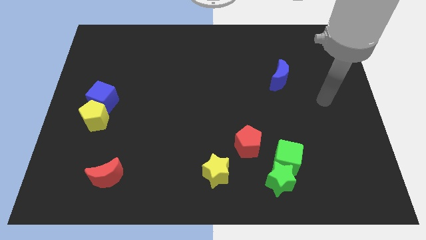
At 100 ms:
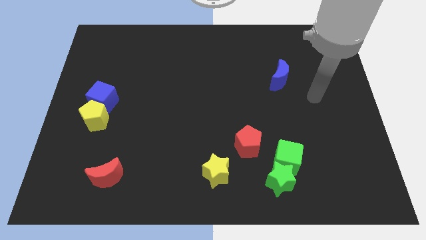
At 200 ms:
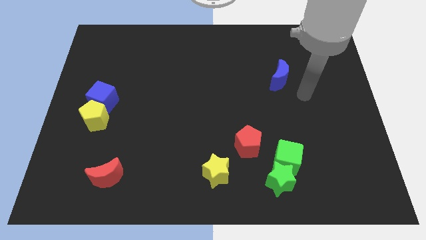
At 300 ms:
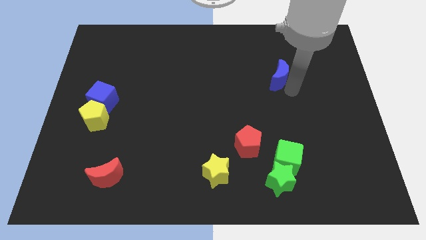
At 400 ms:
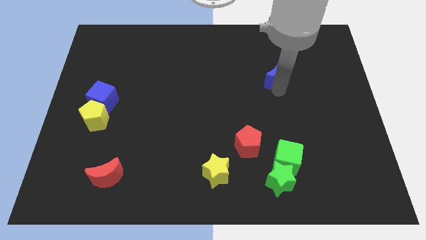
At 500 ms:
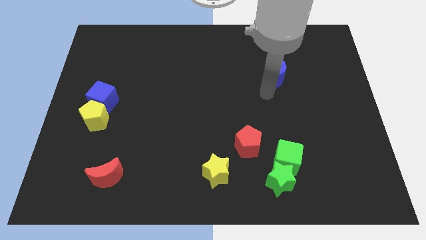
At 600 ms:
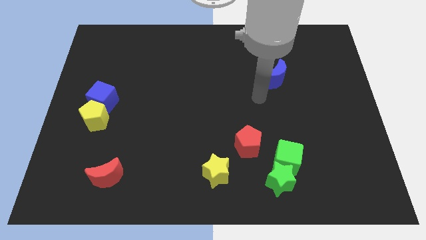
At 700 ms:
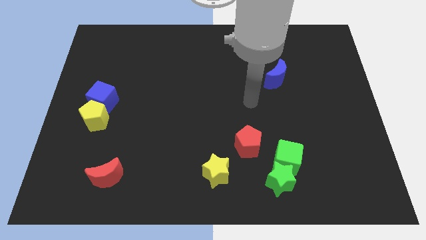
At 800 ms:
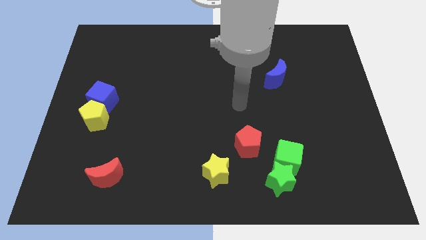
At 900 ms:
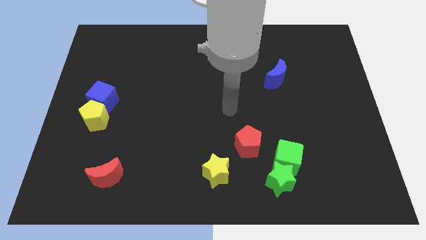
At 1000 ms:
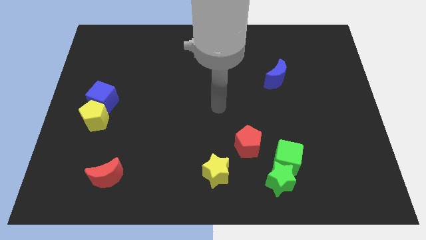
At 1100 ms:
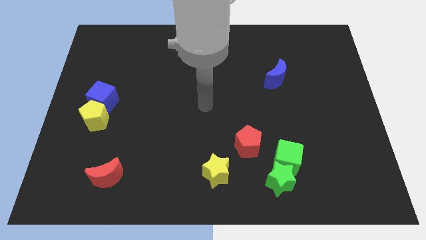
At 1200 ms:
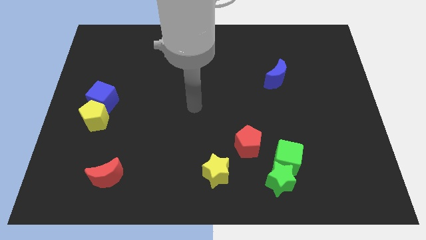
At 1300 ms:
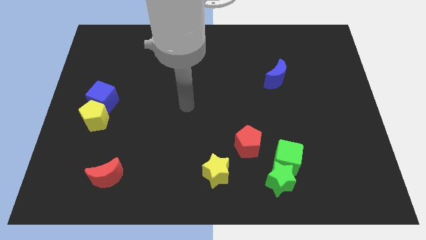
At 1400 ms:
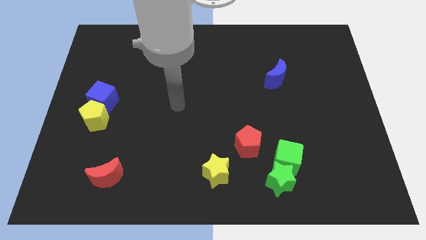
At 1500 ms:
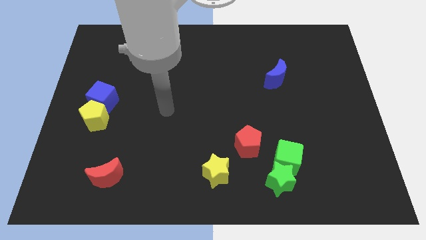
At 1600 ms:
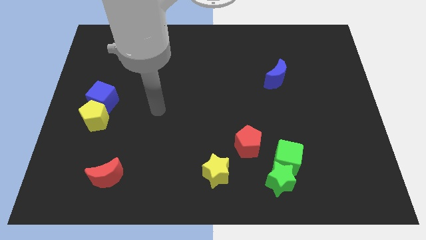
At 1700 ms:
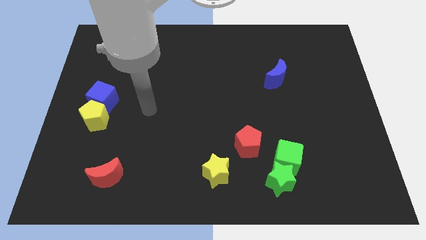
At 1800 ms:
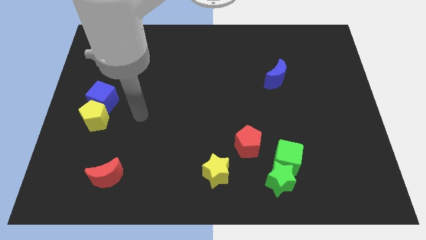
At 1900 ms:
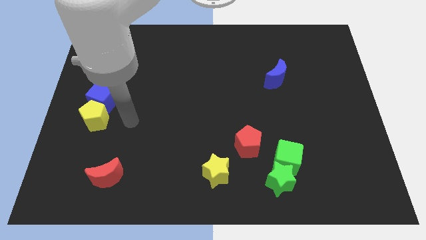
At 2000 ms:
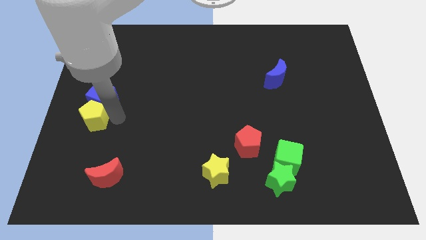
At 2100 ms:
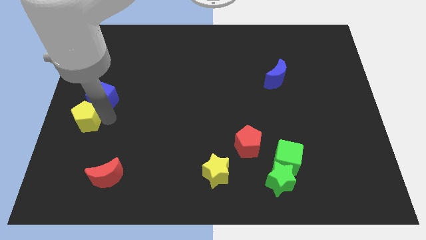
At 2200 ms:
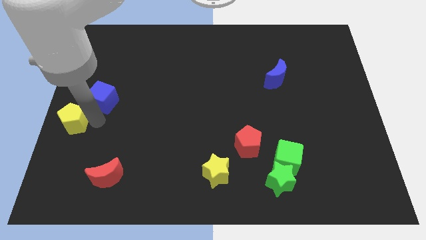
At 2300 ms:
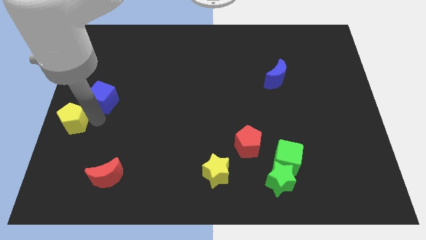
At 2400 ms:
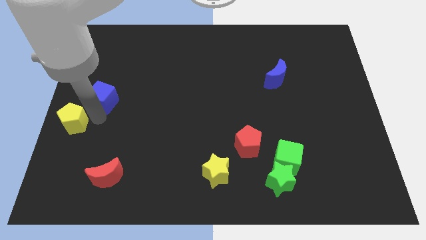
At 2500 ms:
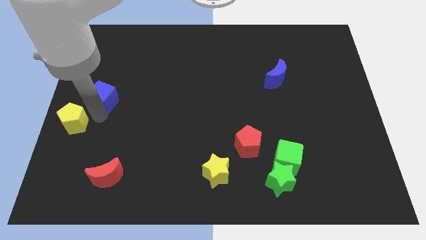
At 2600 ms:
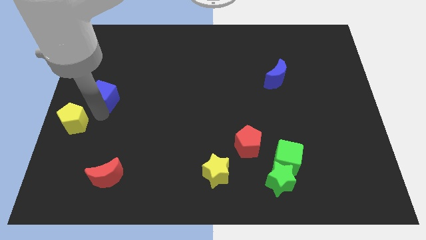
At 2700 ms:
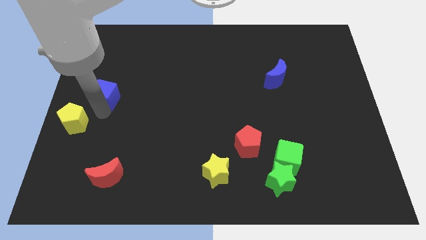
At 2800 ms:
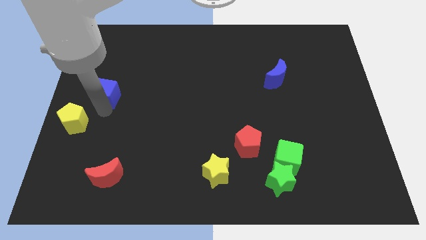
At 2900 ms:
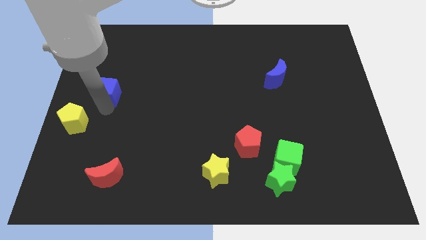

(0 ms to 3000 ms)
pull the blue cube apart from the yellow pentagon

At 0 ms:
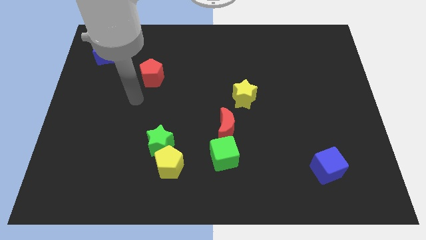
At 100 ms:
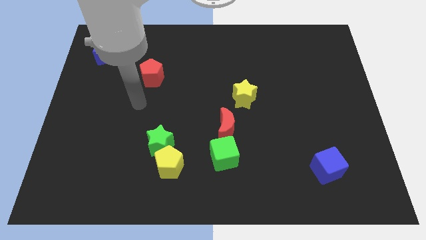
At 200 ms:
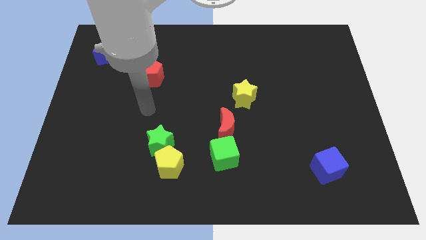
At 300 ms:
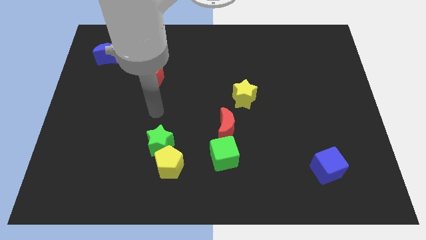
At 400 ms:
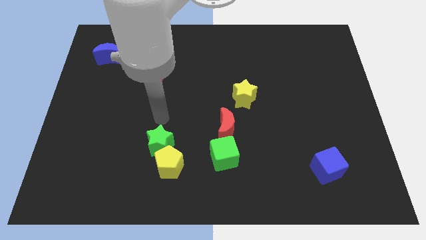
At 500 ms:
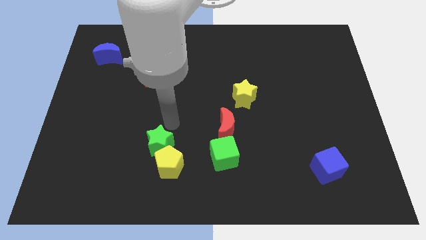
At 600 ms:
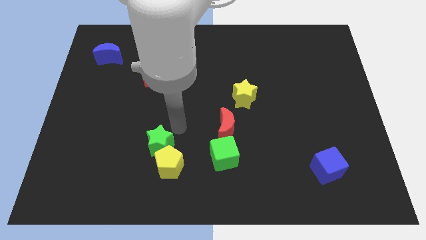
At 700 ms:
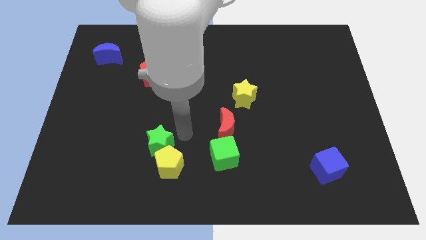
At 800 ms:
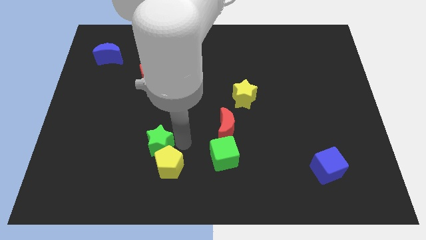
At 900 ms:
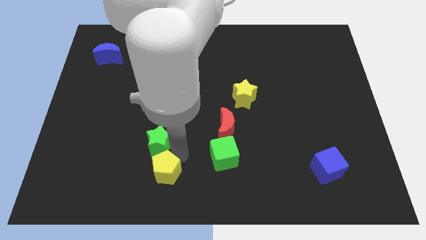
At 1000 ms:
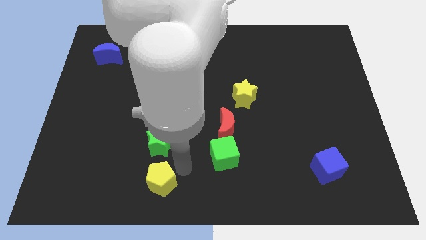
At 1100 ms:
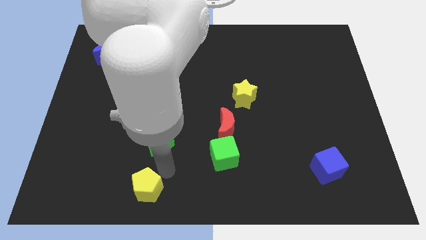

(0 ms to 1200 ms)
separate the green star from the yellow pentagon

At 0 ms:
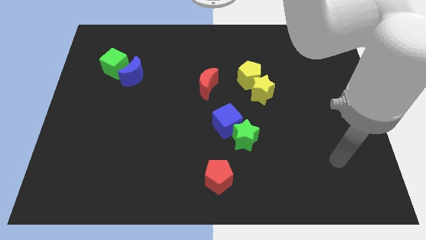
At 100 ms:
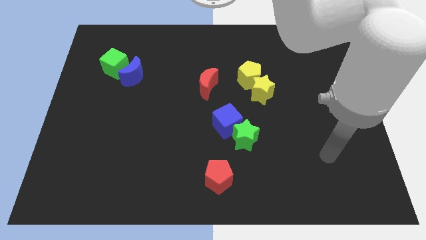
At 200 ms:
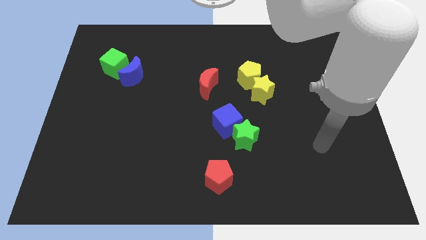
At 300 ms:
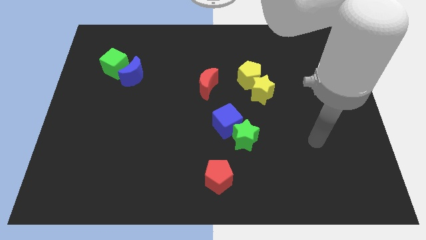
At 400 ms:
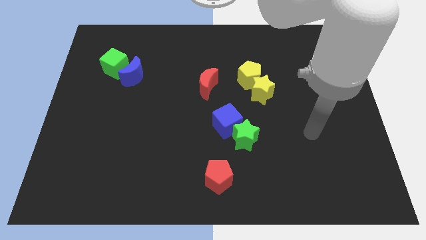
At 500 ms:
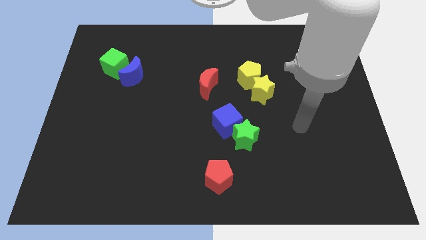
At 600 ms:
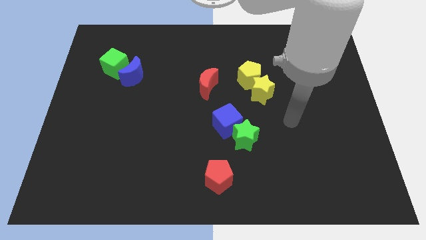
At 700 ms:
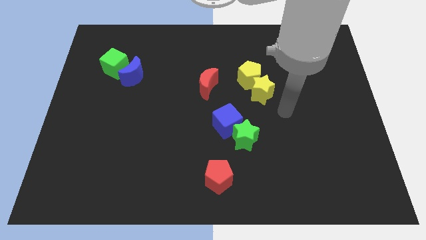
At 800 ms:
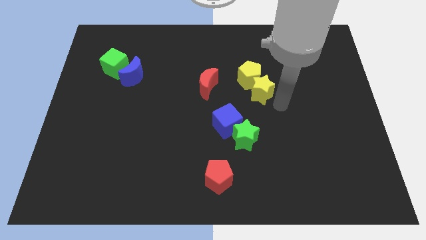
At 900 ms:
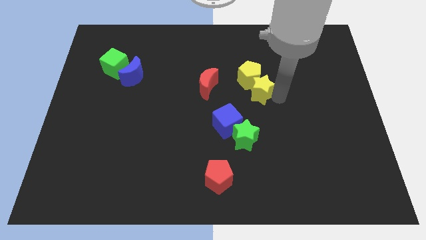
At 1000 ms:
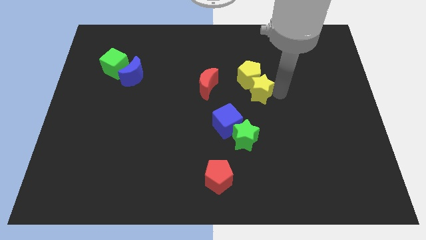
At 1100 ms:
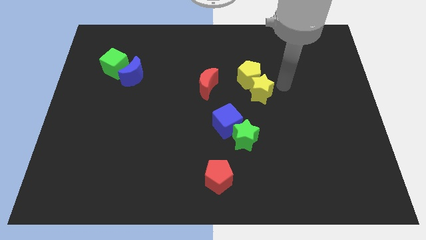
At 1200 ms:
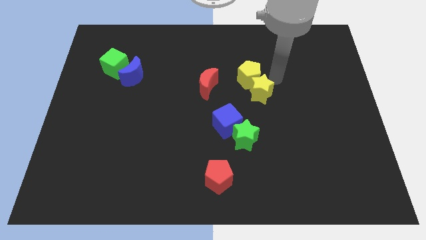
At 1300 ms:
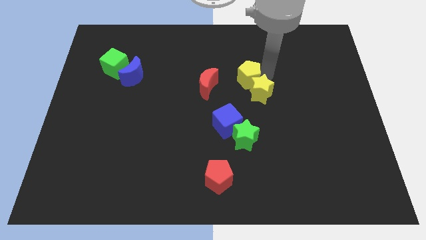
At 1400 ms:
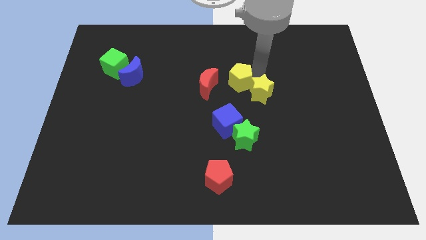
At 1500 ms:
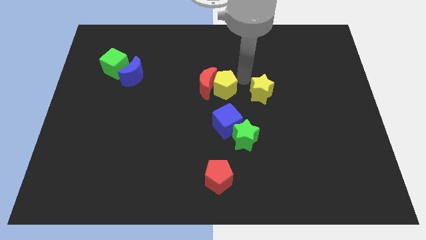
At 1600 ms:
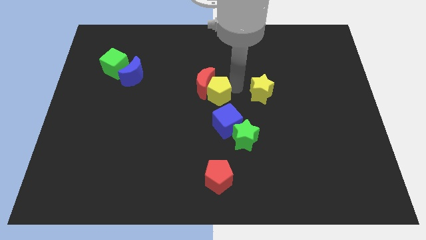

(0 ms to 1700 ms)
separate the yellow star from the yellow pentagon

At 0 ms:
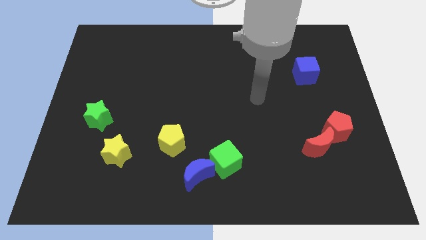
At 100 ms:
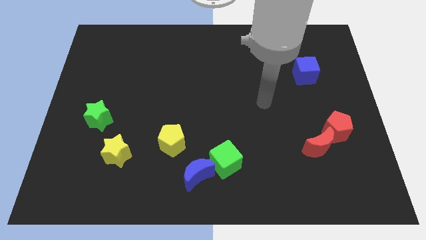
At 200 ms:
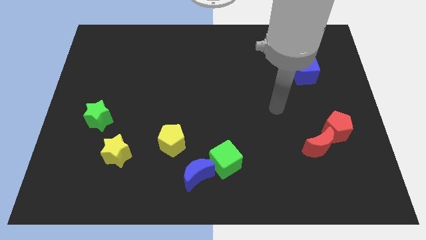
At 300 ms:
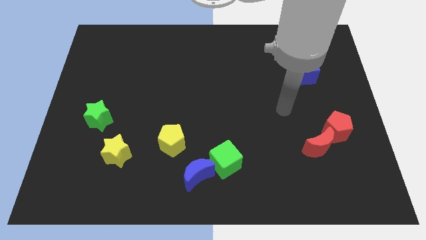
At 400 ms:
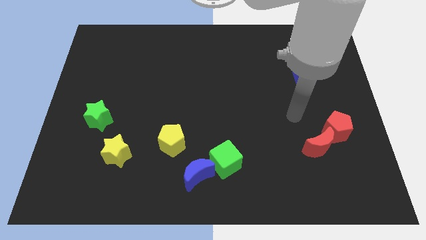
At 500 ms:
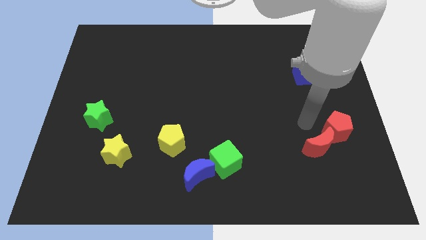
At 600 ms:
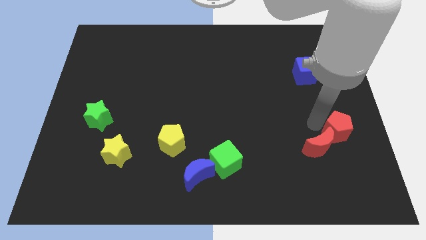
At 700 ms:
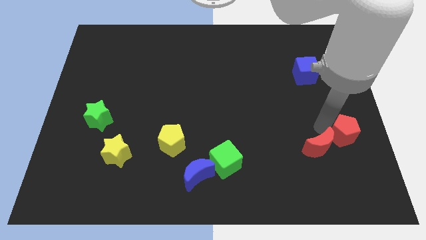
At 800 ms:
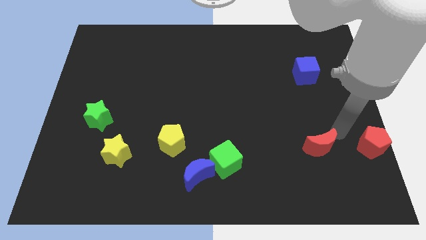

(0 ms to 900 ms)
pull the red moon apart from the red pentagon

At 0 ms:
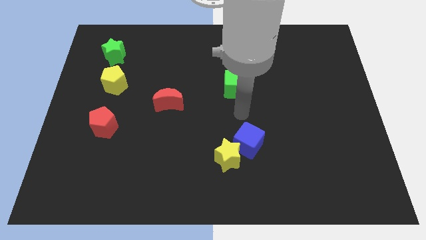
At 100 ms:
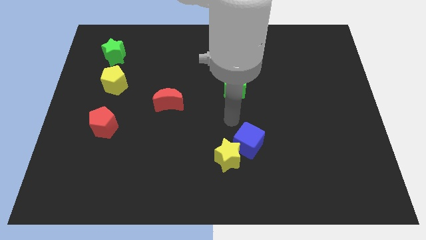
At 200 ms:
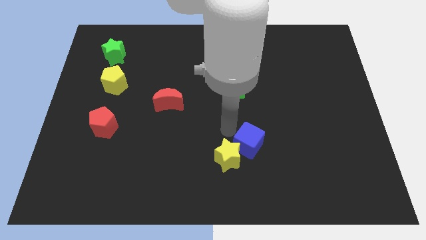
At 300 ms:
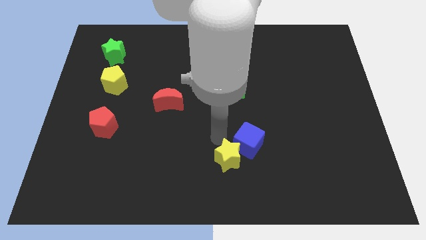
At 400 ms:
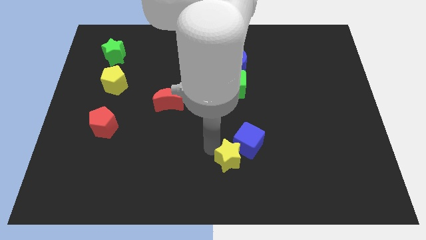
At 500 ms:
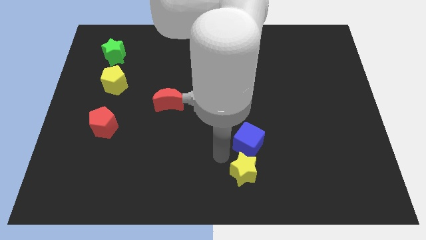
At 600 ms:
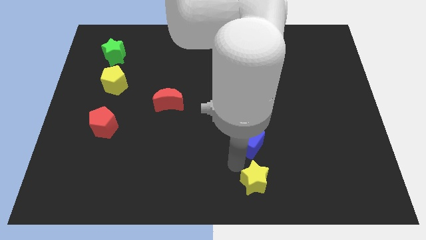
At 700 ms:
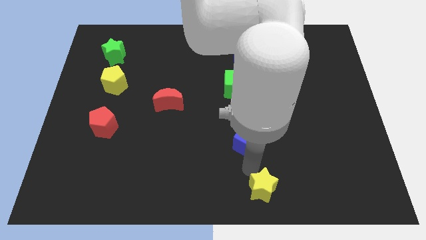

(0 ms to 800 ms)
move the blue cube away from the yellow star

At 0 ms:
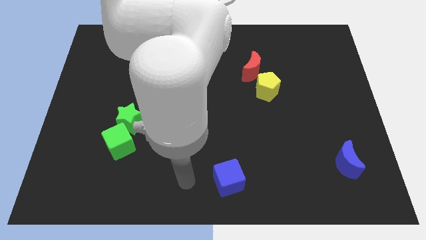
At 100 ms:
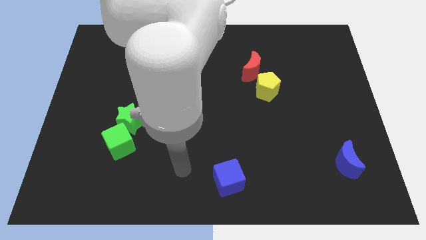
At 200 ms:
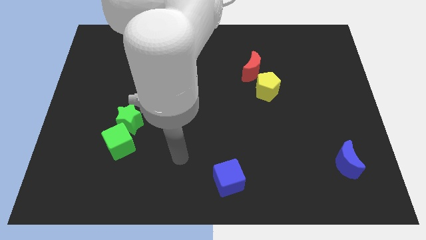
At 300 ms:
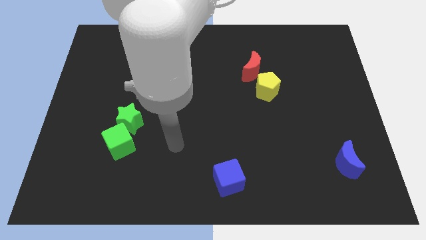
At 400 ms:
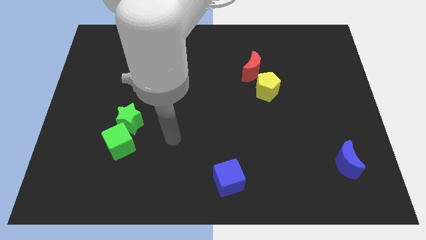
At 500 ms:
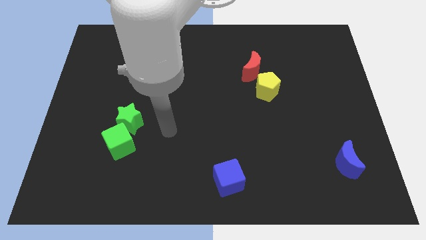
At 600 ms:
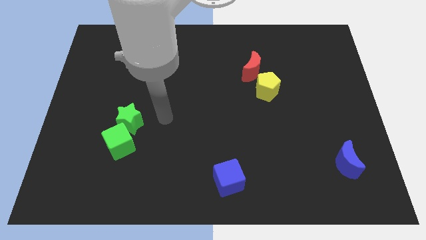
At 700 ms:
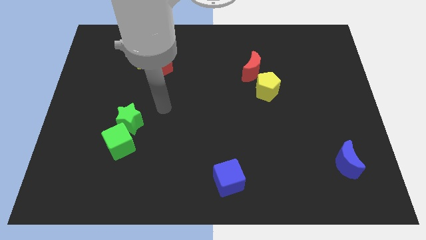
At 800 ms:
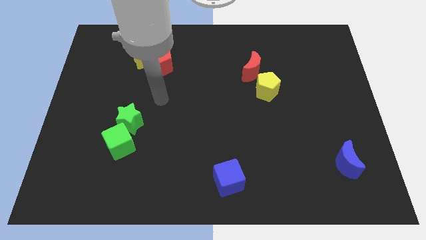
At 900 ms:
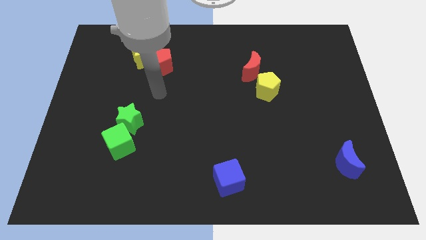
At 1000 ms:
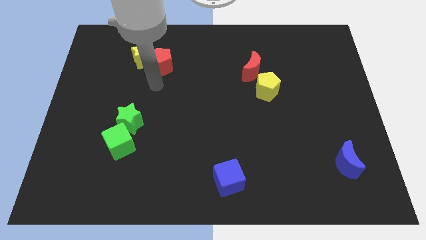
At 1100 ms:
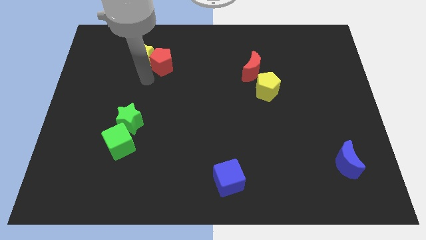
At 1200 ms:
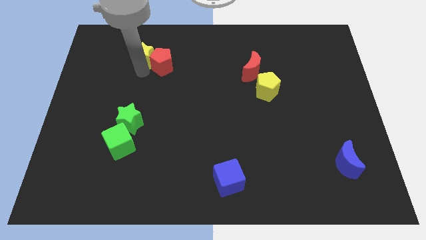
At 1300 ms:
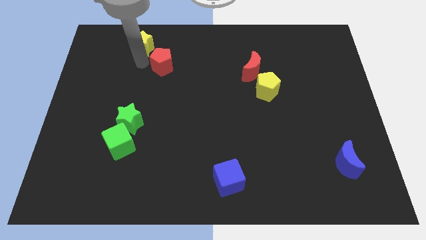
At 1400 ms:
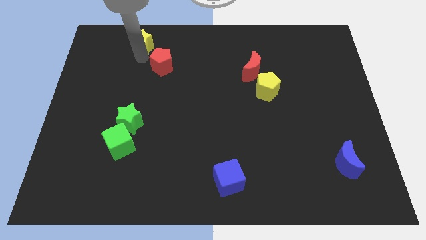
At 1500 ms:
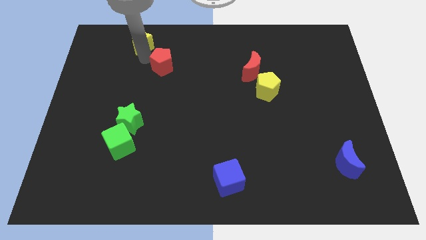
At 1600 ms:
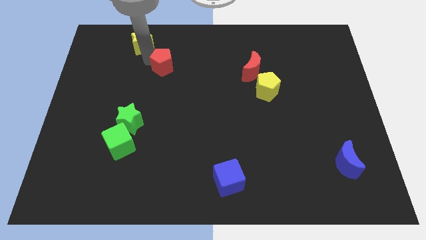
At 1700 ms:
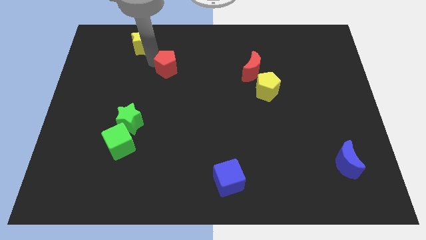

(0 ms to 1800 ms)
pull the red pentagon apart from the yellow star
